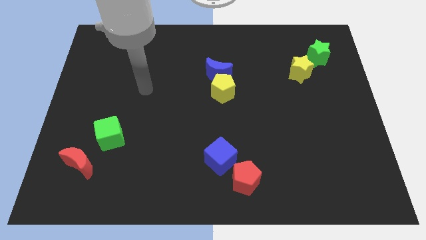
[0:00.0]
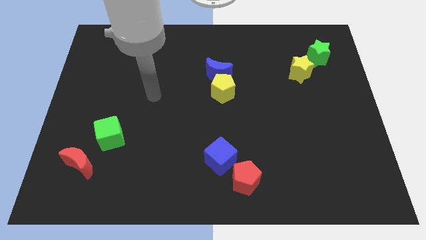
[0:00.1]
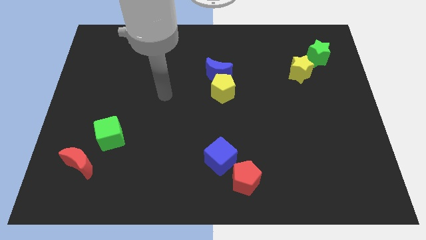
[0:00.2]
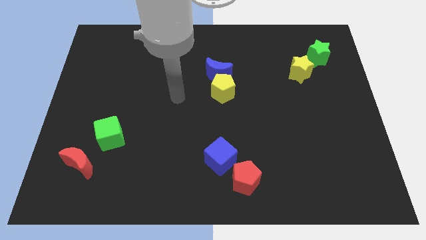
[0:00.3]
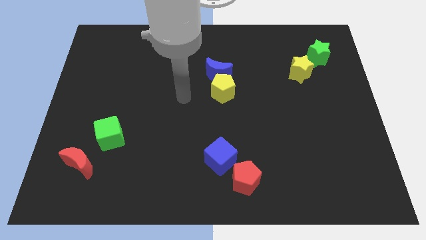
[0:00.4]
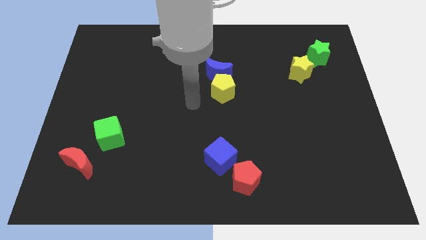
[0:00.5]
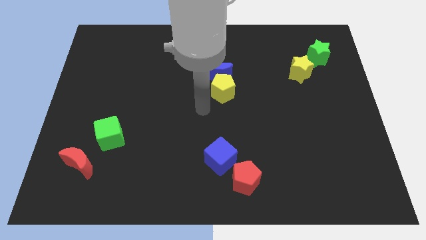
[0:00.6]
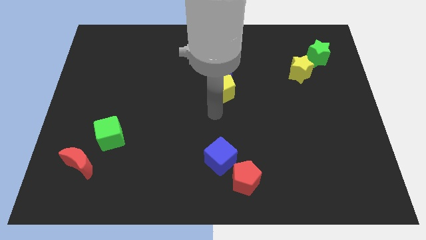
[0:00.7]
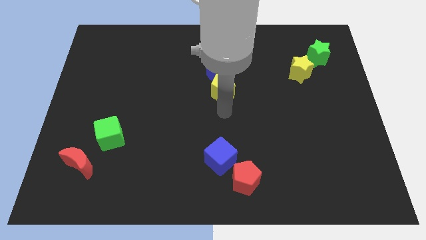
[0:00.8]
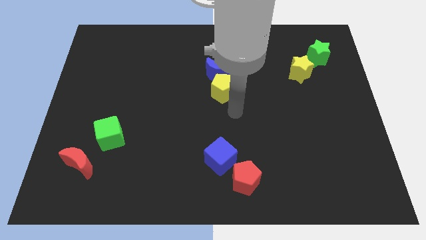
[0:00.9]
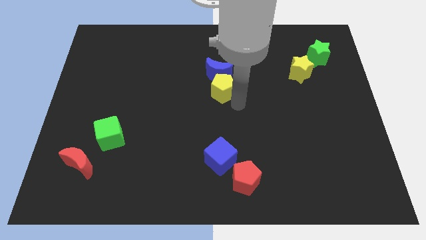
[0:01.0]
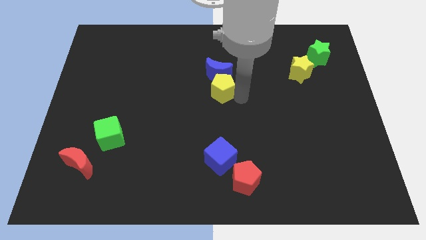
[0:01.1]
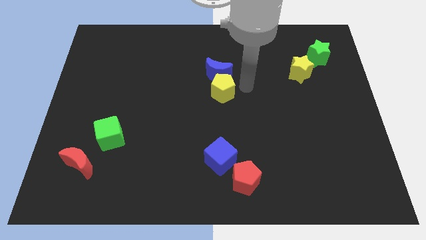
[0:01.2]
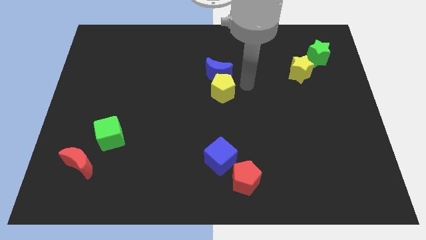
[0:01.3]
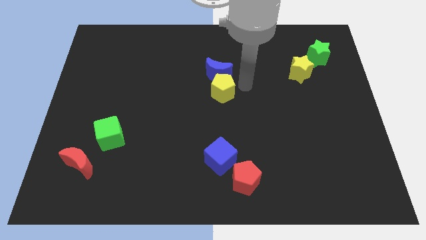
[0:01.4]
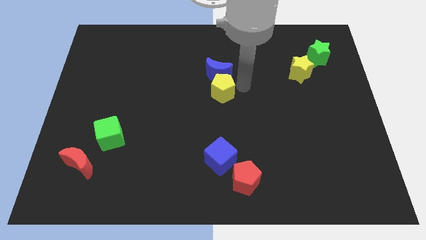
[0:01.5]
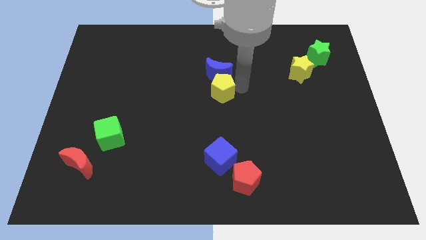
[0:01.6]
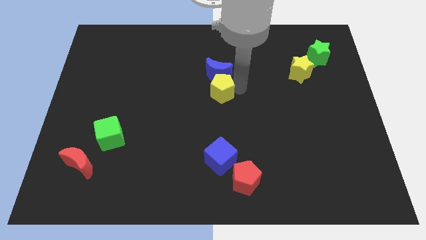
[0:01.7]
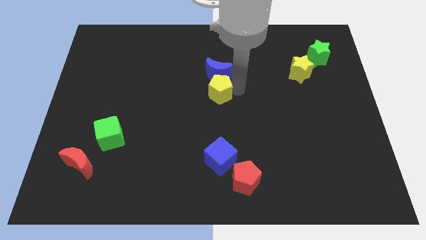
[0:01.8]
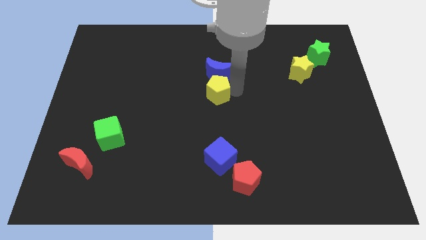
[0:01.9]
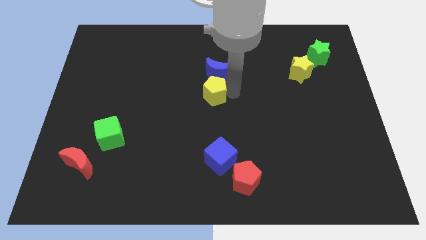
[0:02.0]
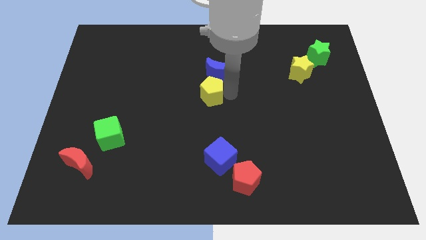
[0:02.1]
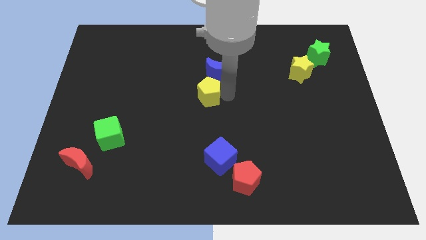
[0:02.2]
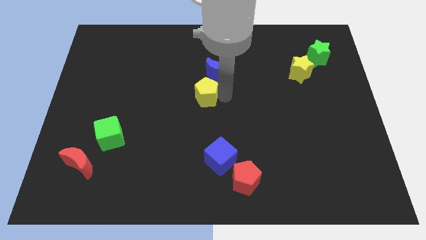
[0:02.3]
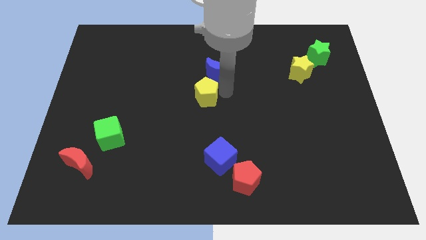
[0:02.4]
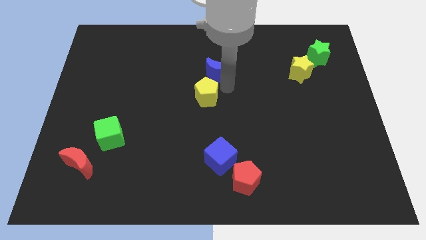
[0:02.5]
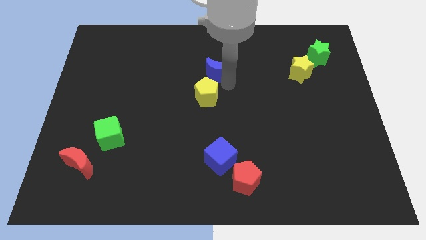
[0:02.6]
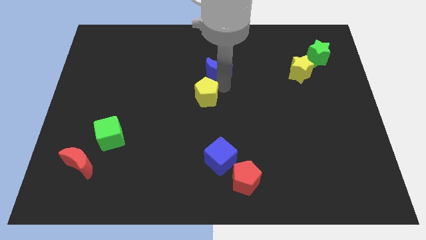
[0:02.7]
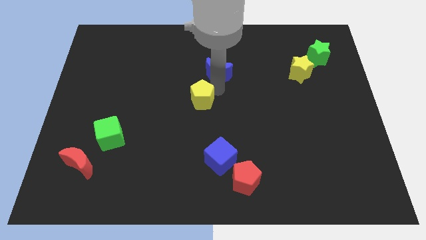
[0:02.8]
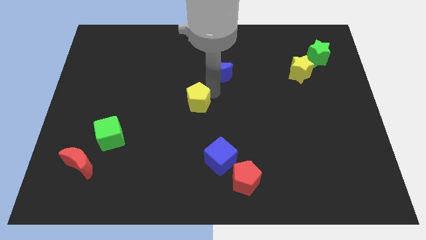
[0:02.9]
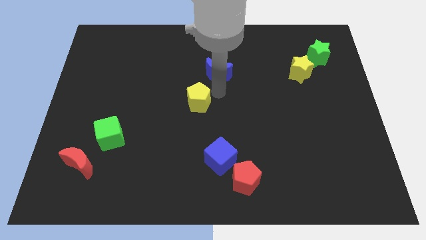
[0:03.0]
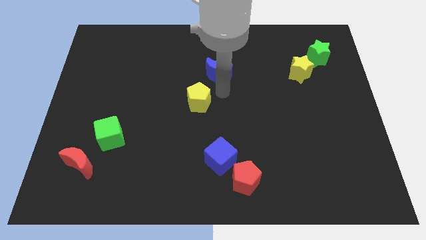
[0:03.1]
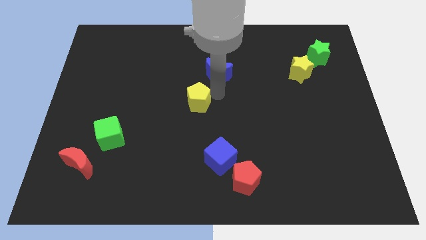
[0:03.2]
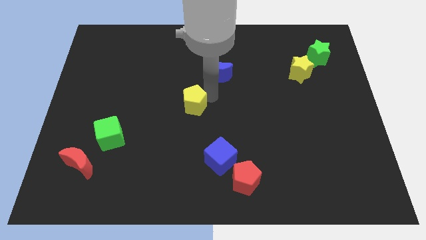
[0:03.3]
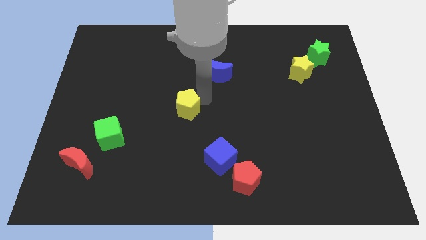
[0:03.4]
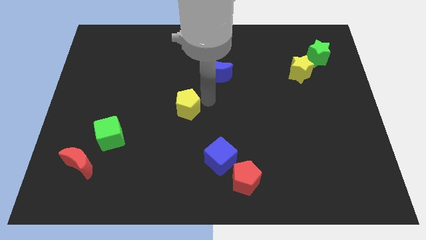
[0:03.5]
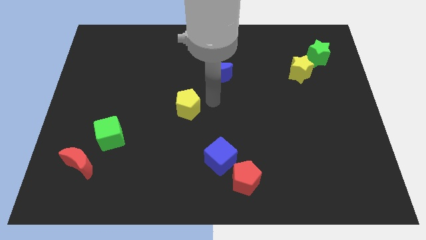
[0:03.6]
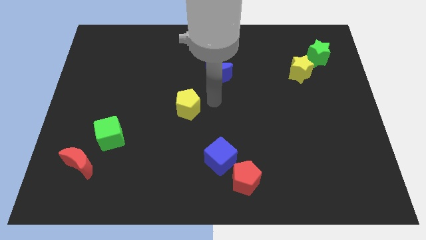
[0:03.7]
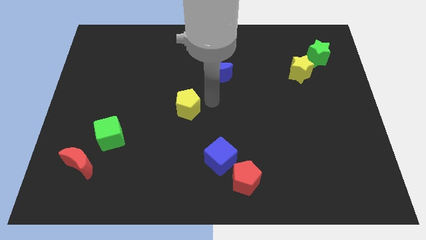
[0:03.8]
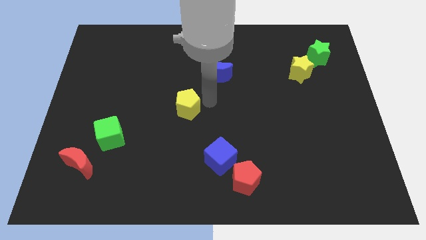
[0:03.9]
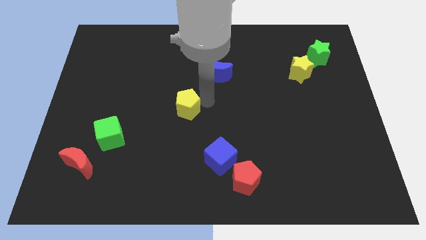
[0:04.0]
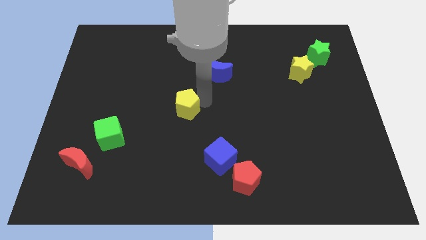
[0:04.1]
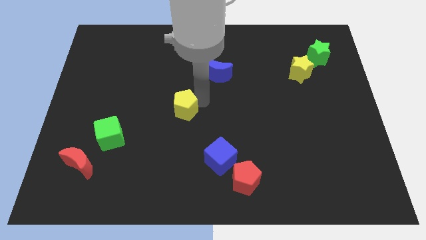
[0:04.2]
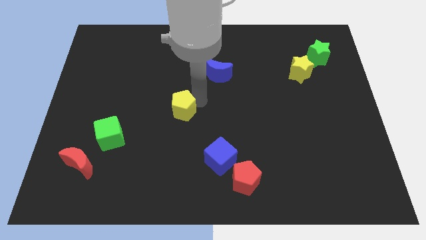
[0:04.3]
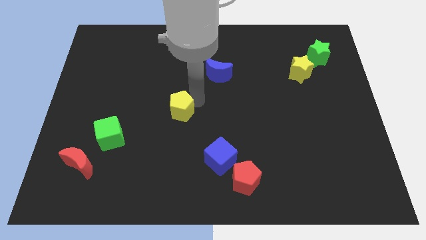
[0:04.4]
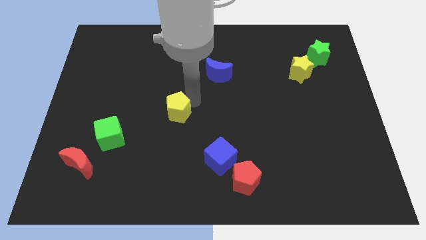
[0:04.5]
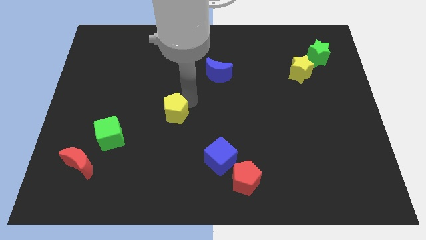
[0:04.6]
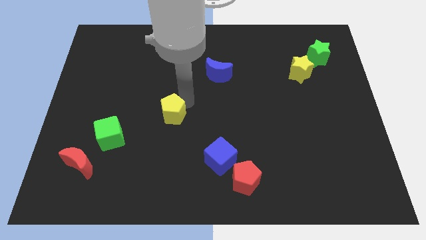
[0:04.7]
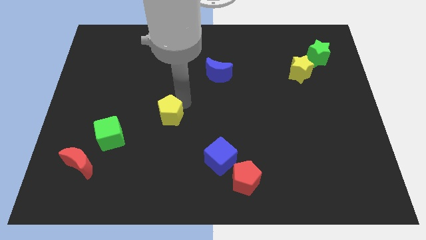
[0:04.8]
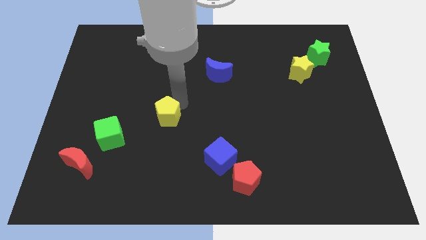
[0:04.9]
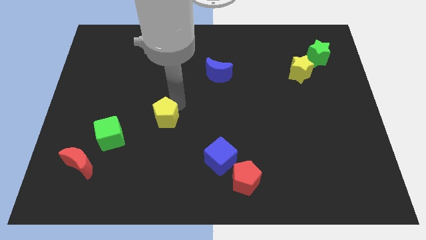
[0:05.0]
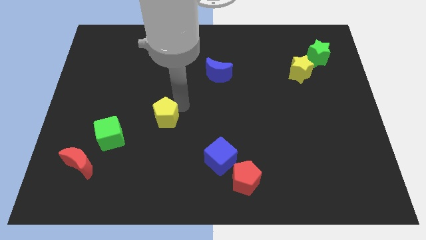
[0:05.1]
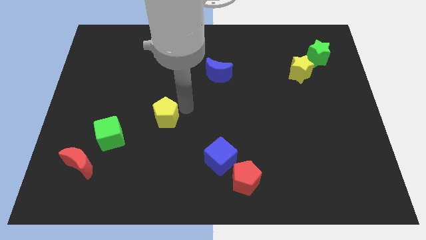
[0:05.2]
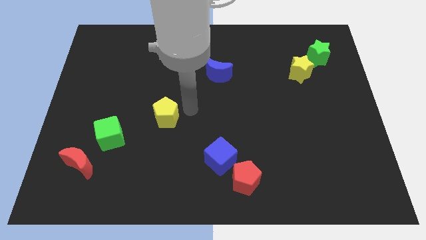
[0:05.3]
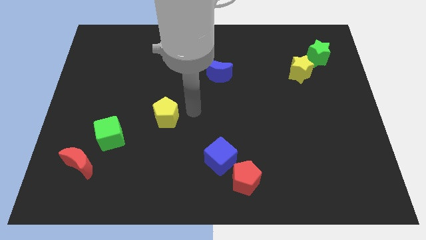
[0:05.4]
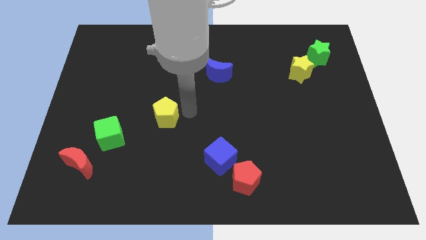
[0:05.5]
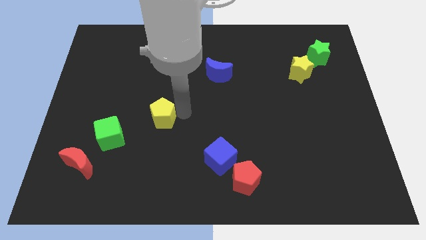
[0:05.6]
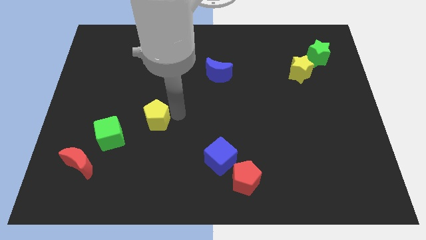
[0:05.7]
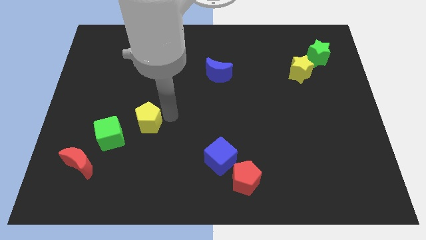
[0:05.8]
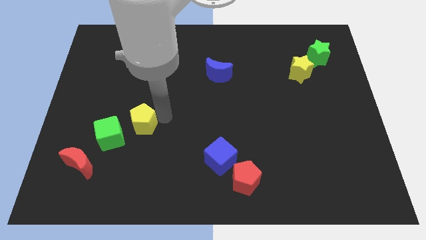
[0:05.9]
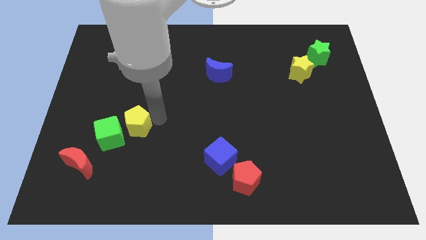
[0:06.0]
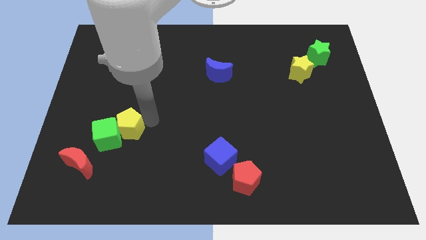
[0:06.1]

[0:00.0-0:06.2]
move the yellow pentagon towards the green cube

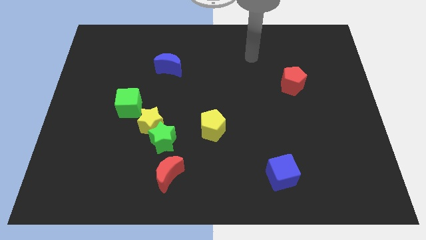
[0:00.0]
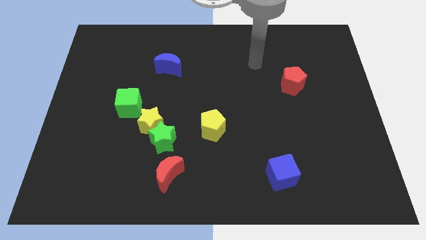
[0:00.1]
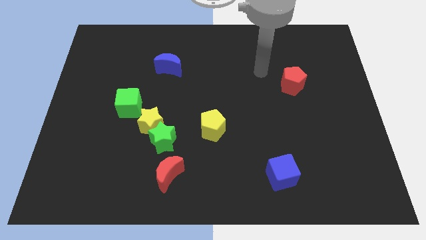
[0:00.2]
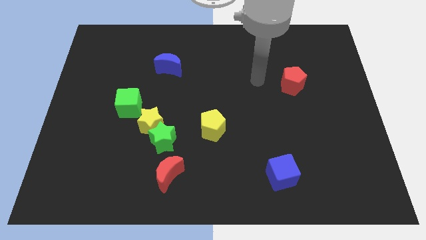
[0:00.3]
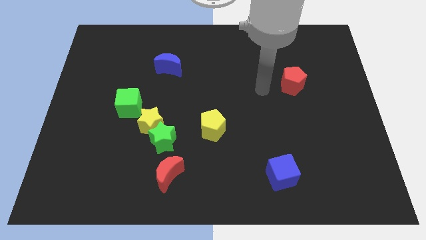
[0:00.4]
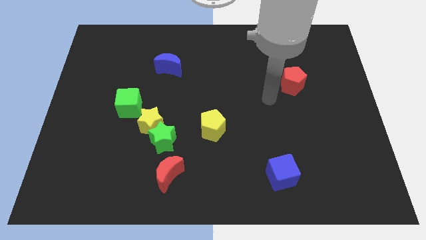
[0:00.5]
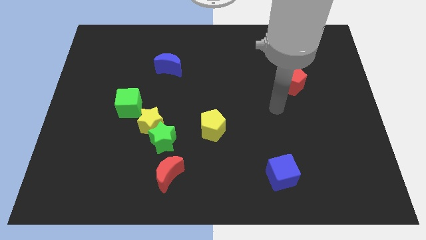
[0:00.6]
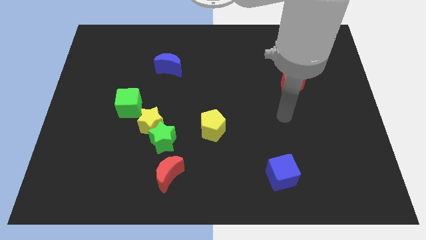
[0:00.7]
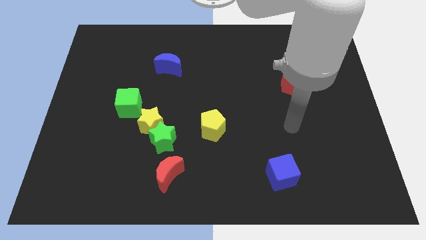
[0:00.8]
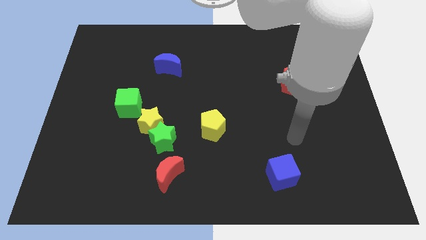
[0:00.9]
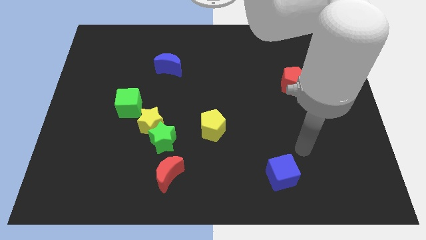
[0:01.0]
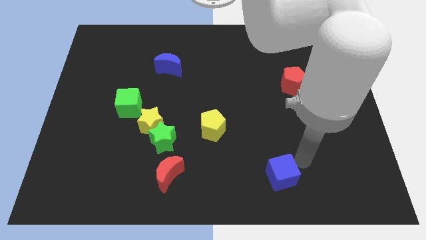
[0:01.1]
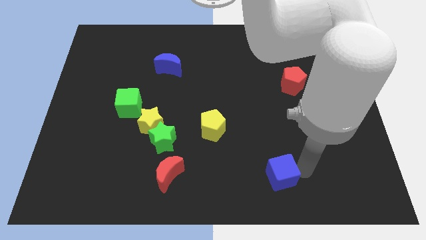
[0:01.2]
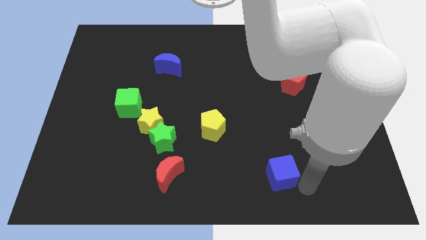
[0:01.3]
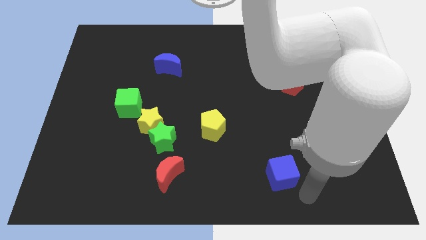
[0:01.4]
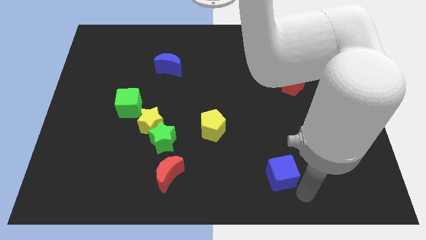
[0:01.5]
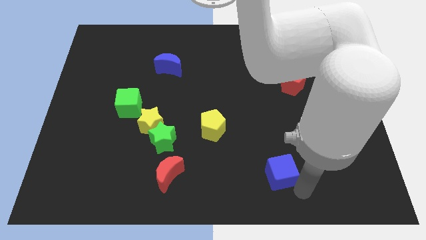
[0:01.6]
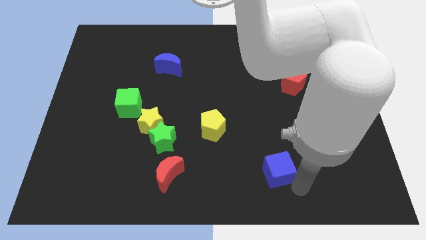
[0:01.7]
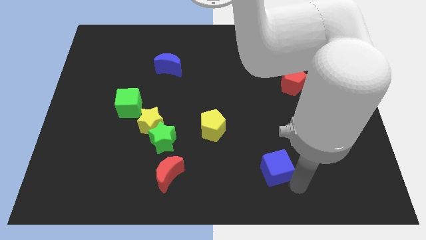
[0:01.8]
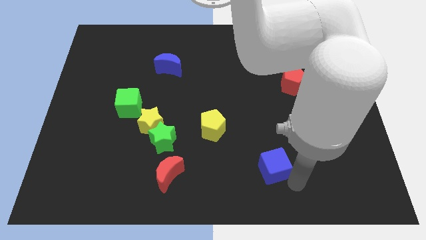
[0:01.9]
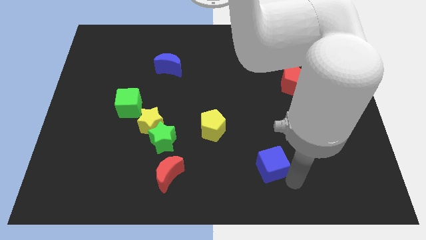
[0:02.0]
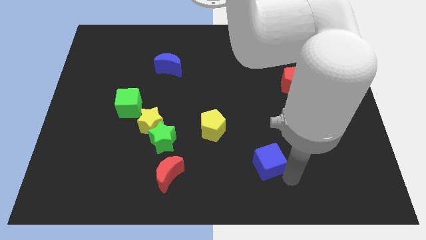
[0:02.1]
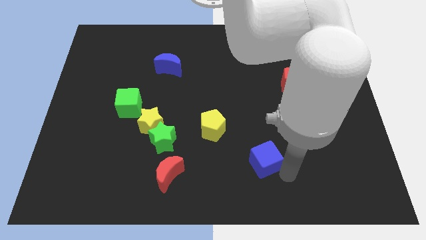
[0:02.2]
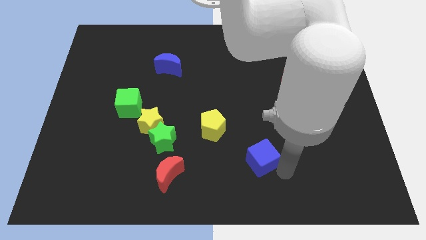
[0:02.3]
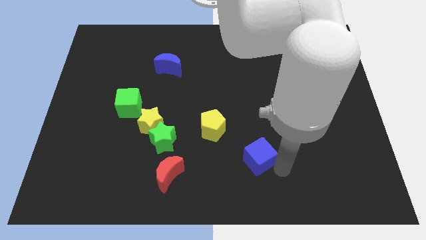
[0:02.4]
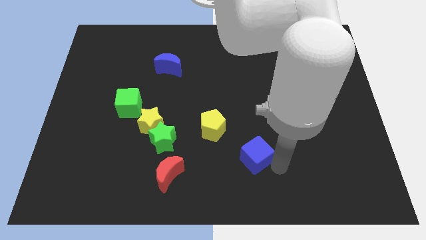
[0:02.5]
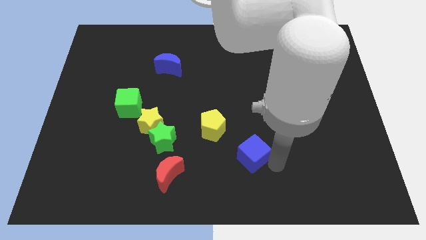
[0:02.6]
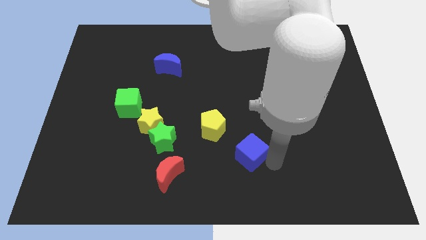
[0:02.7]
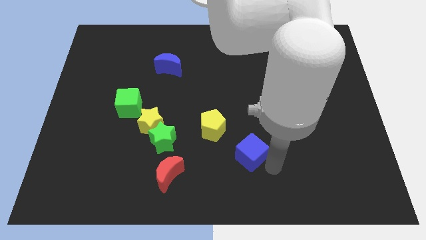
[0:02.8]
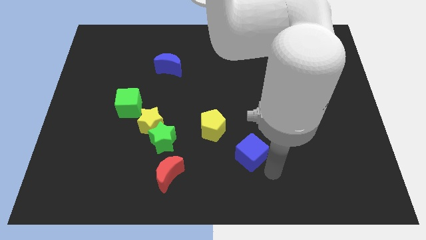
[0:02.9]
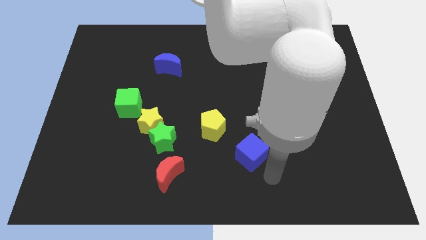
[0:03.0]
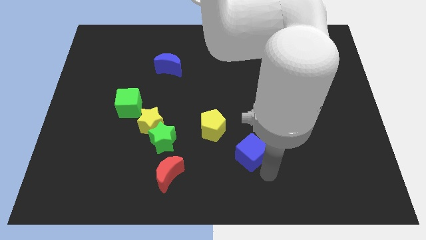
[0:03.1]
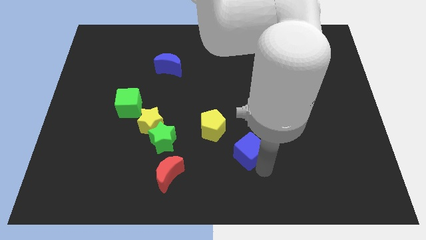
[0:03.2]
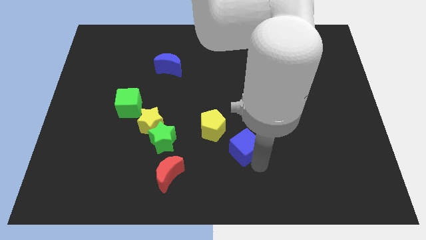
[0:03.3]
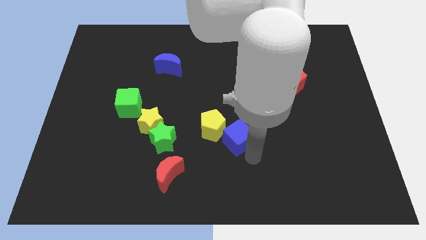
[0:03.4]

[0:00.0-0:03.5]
push the blue cube to the yellow pentagon
